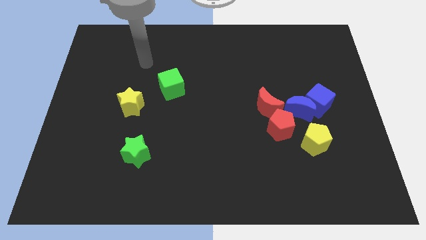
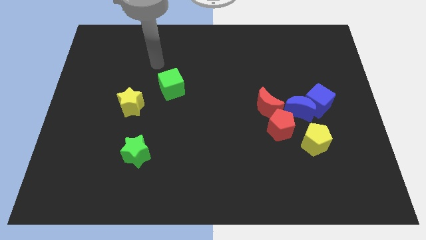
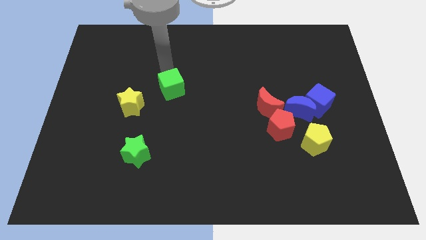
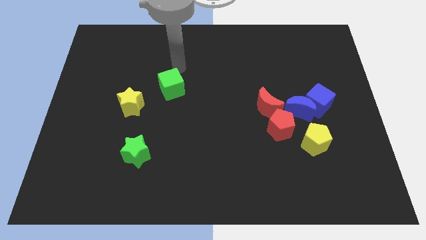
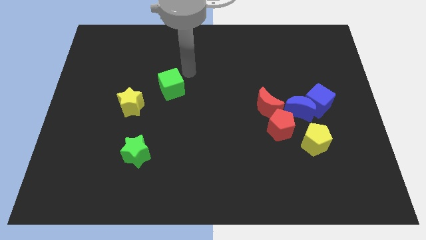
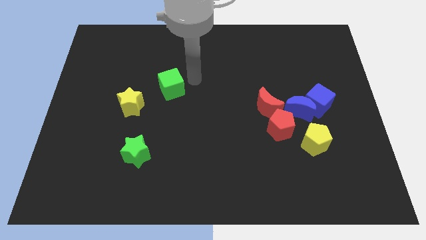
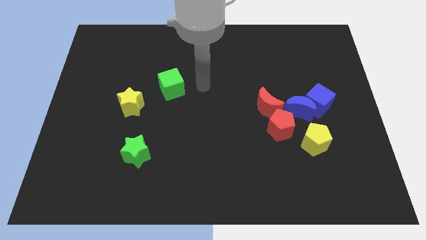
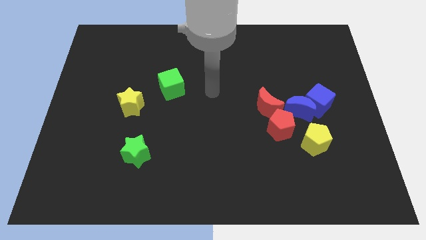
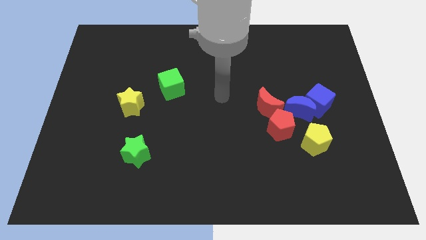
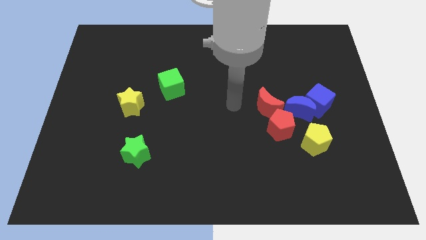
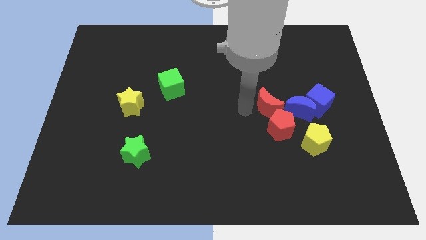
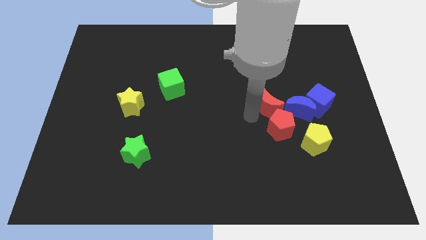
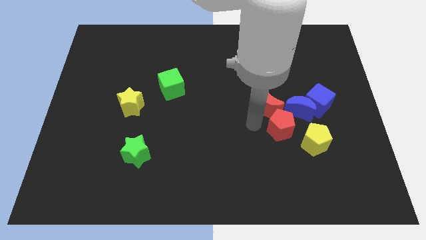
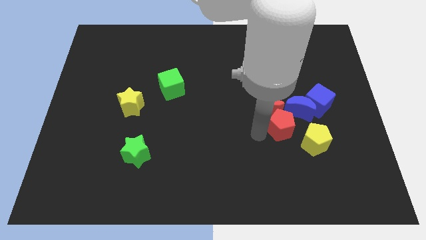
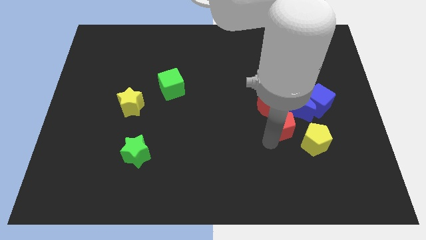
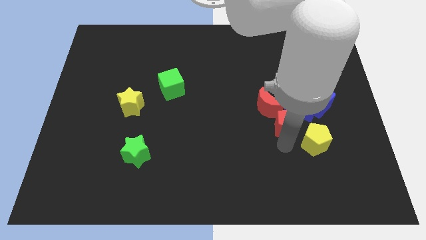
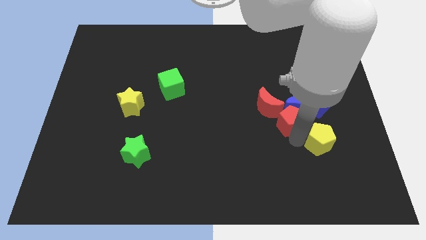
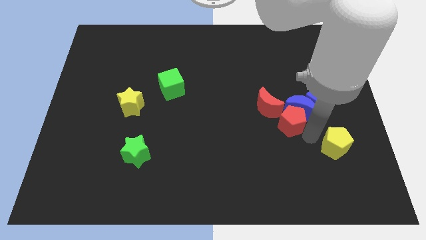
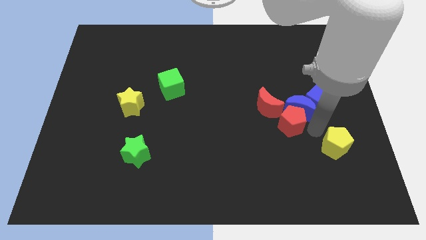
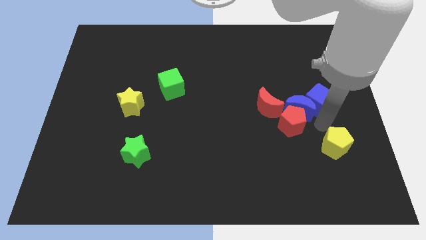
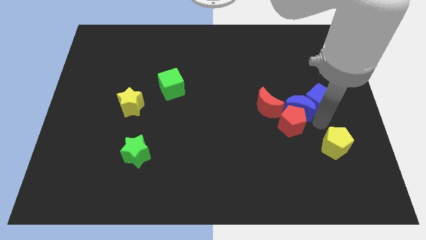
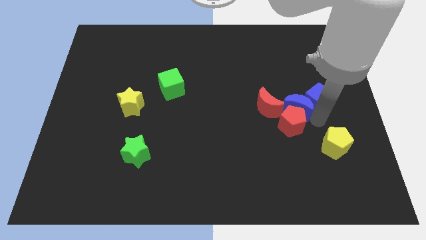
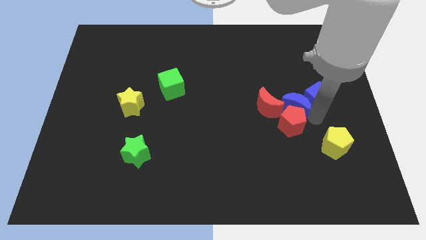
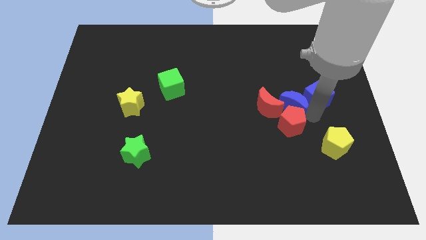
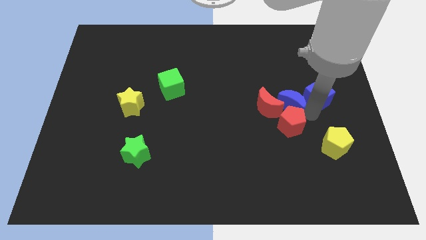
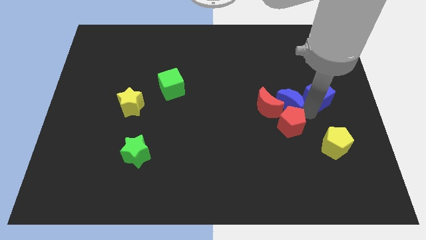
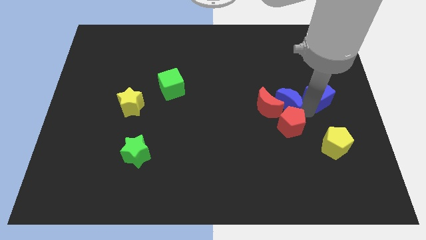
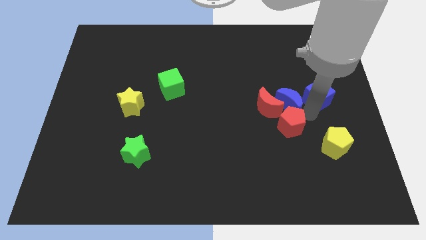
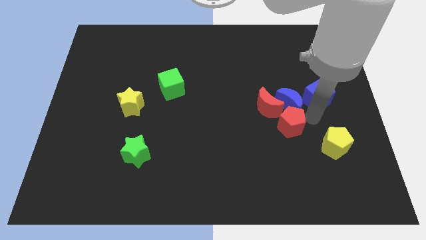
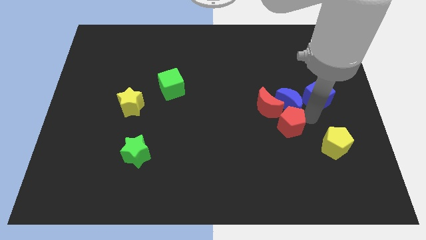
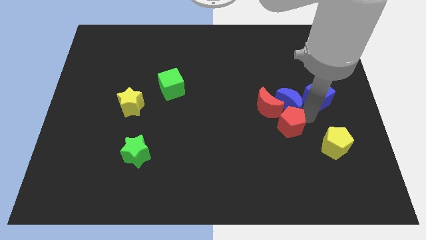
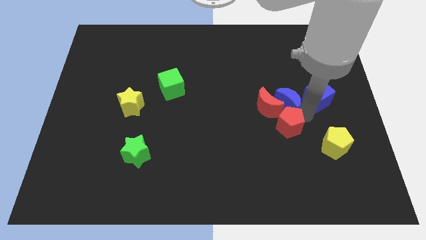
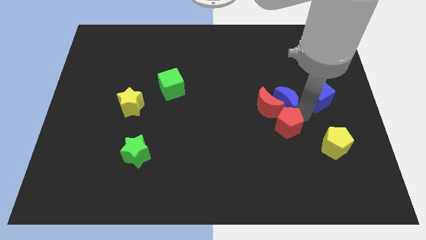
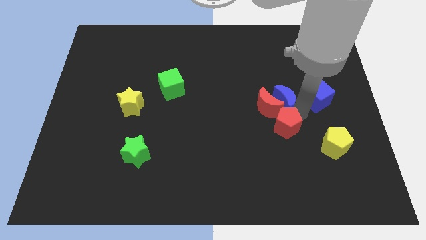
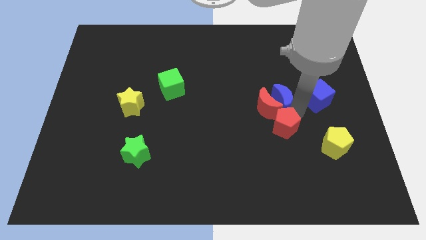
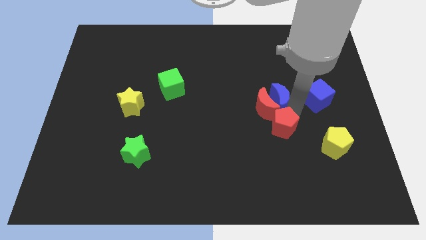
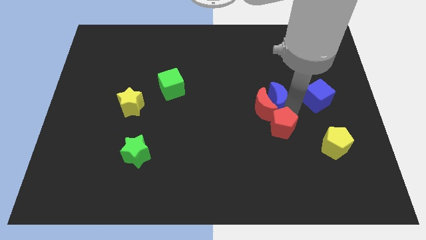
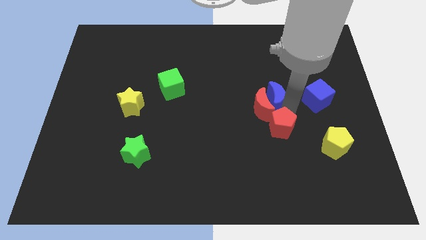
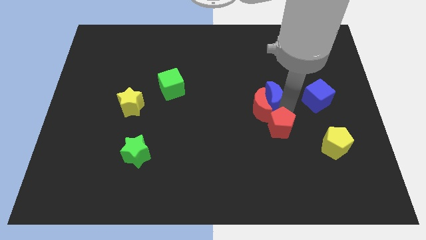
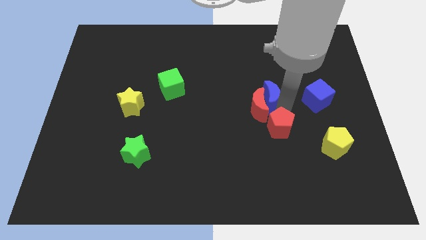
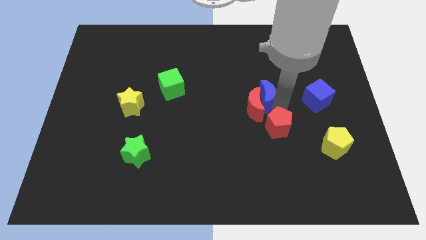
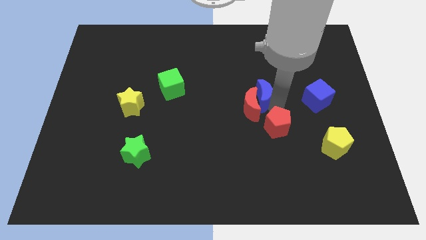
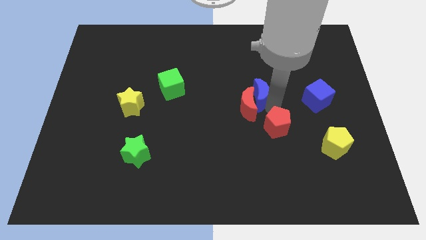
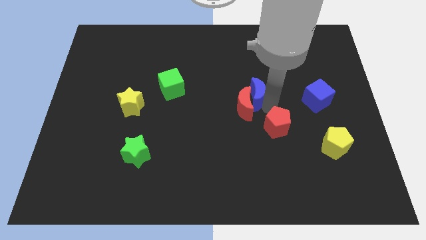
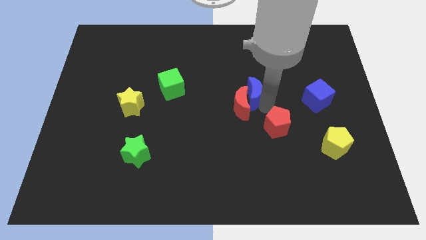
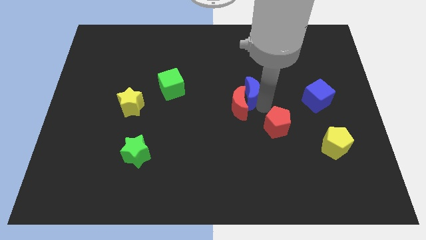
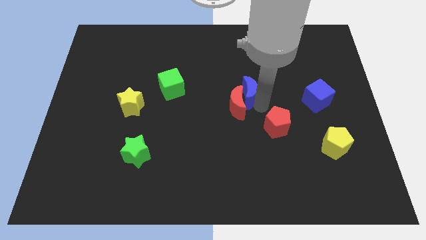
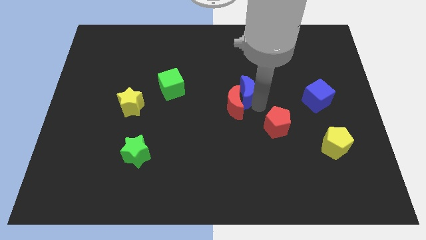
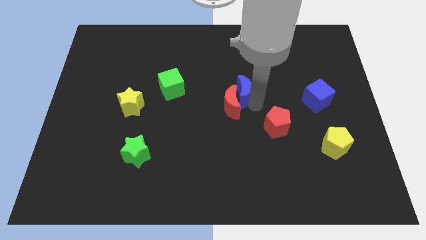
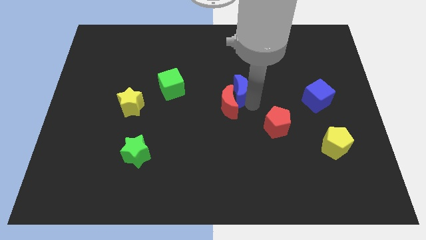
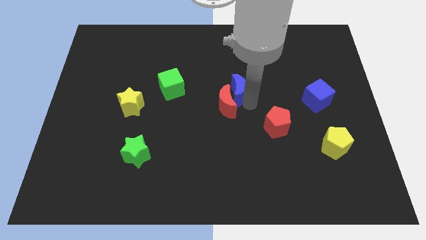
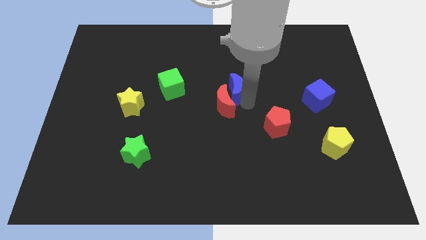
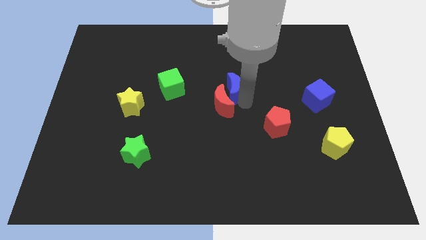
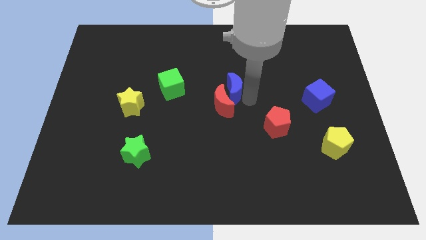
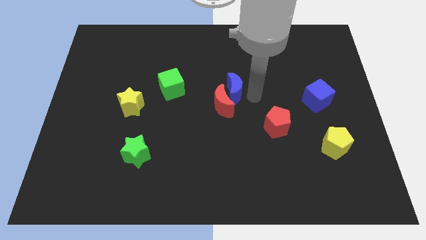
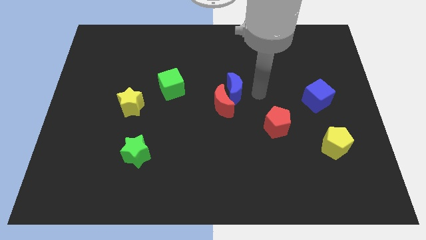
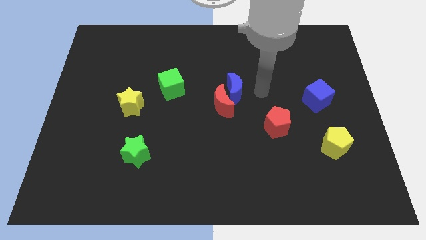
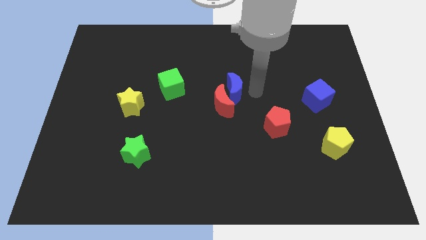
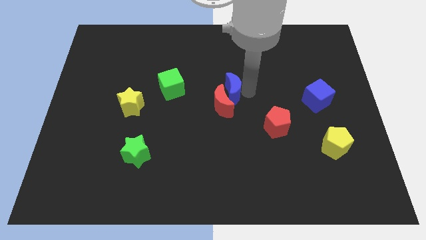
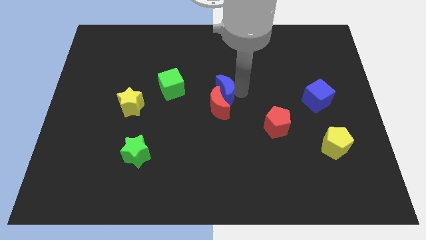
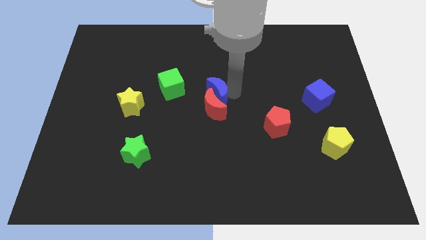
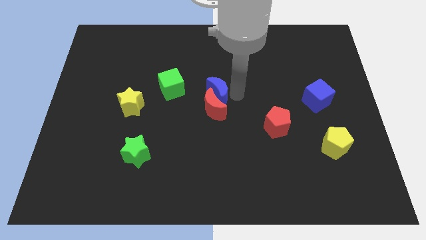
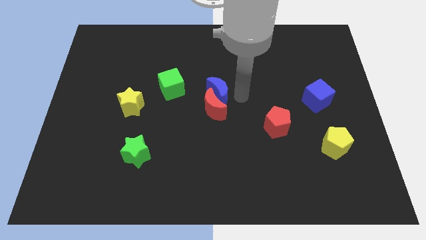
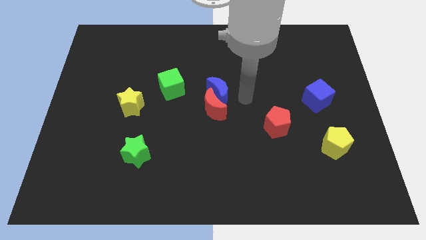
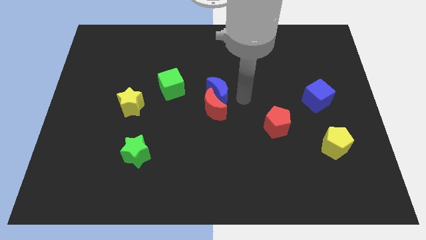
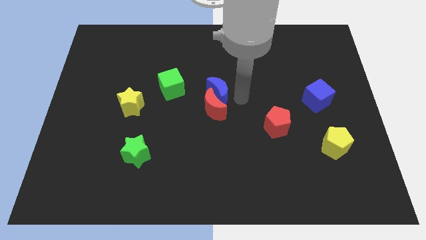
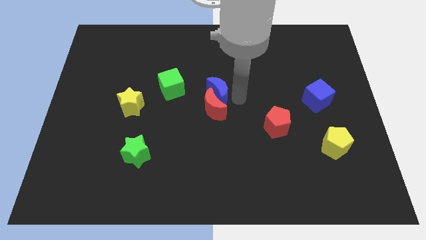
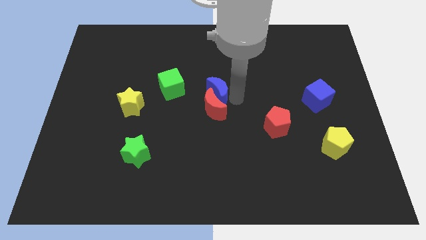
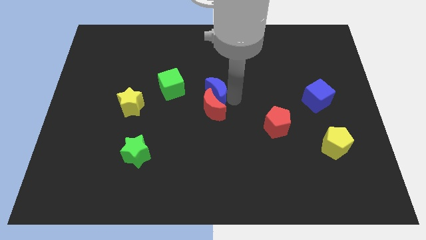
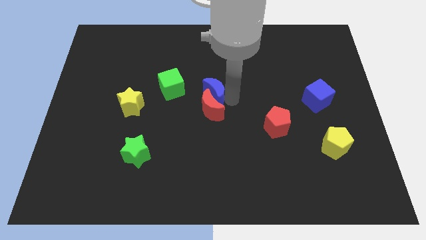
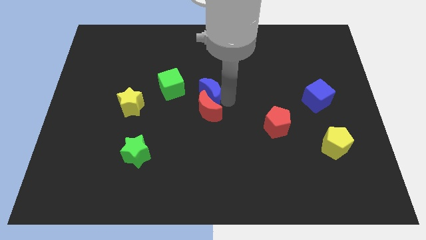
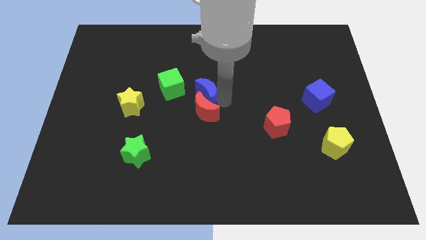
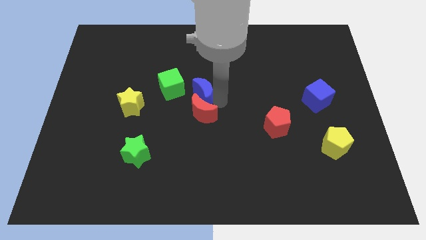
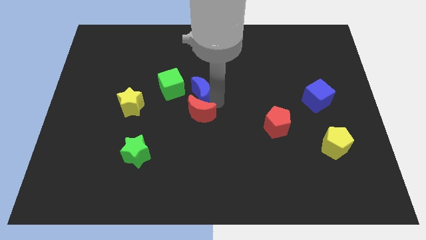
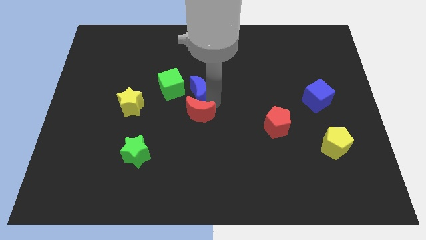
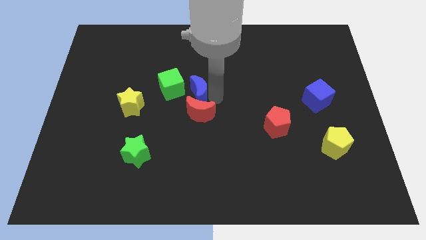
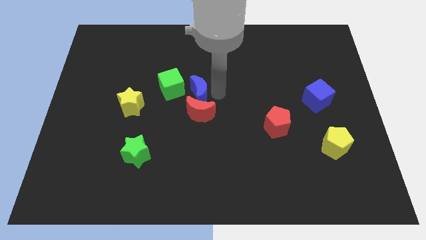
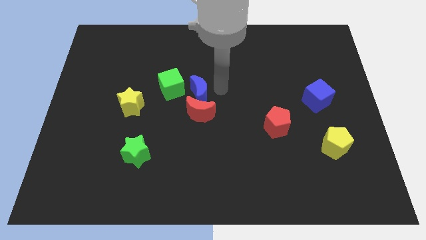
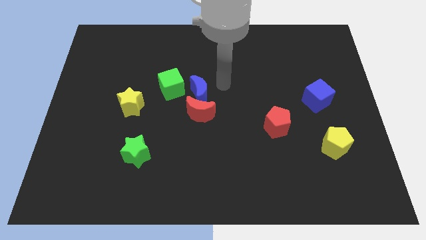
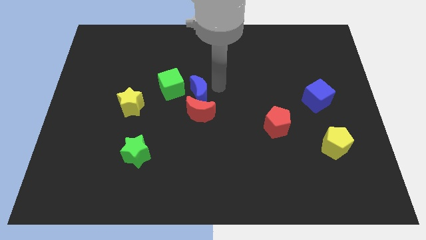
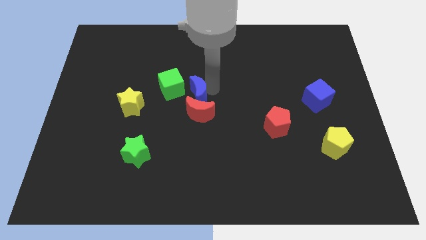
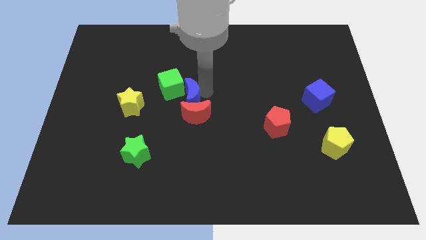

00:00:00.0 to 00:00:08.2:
move the blue moon right of the yellow star
